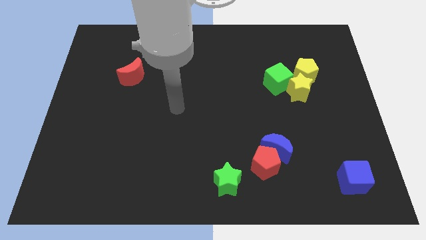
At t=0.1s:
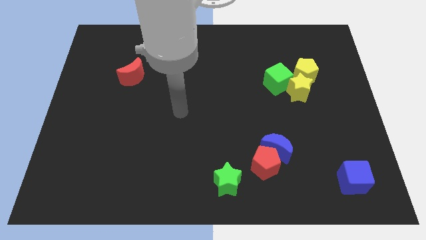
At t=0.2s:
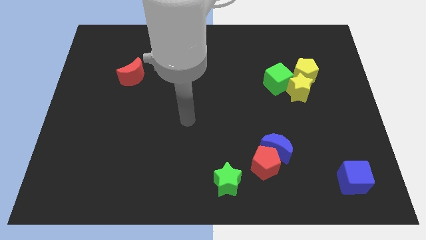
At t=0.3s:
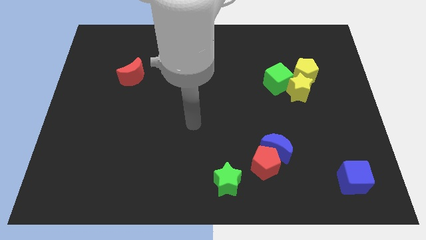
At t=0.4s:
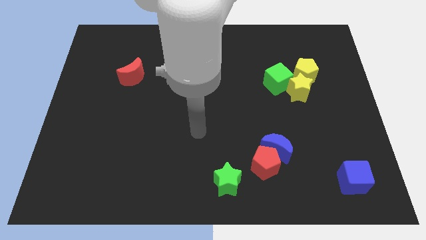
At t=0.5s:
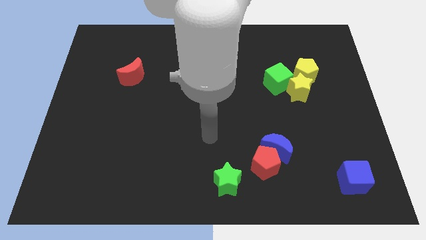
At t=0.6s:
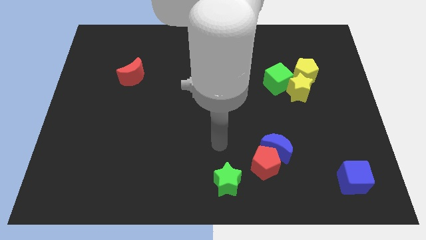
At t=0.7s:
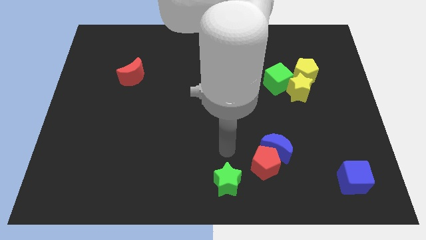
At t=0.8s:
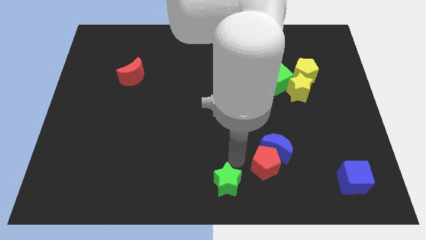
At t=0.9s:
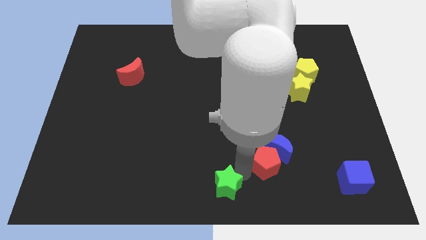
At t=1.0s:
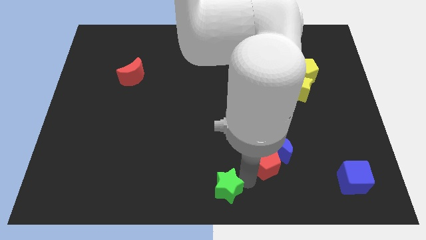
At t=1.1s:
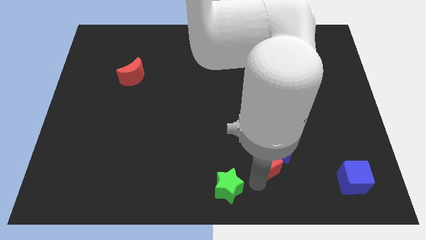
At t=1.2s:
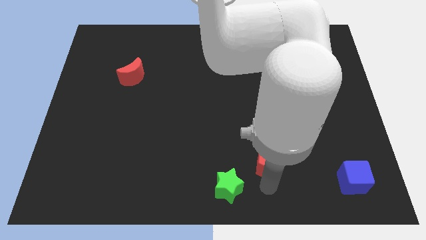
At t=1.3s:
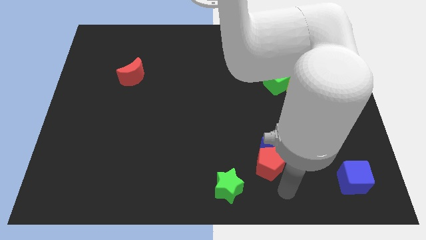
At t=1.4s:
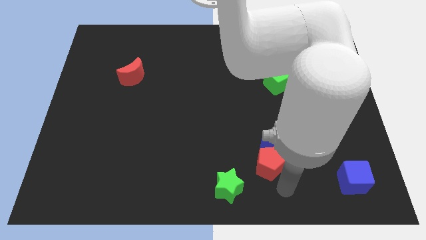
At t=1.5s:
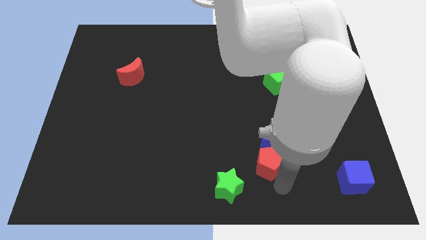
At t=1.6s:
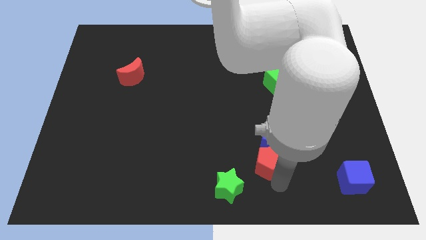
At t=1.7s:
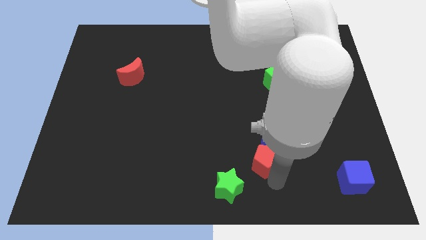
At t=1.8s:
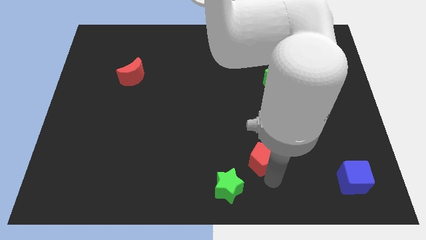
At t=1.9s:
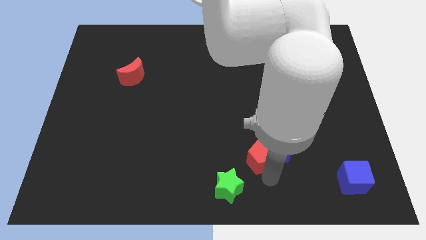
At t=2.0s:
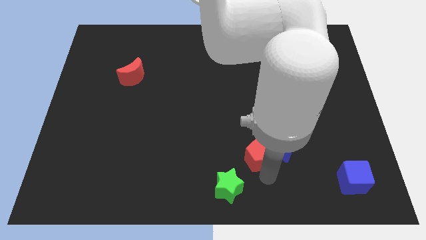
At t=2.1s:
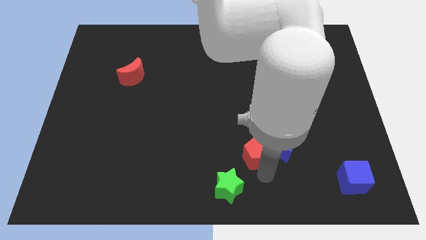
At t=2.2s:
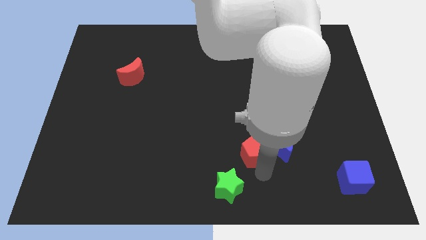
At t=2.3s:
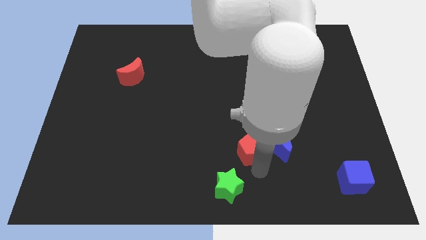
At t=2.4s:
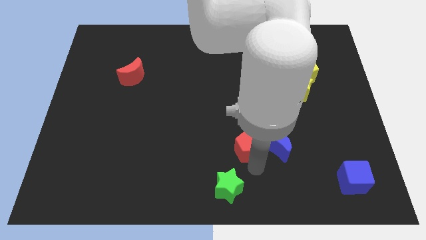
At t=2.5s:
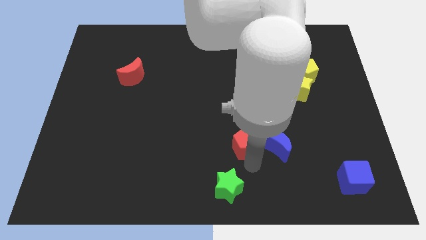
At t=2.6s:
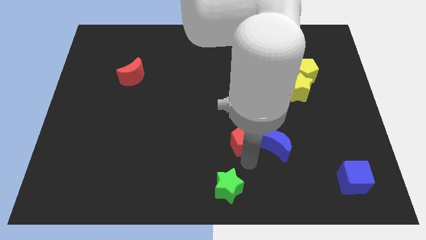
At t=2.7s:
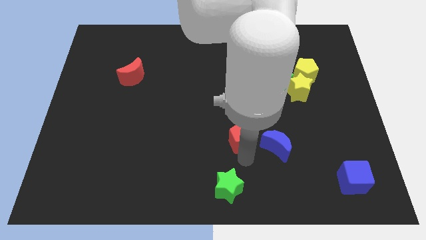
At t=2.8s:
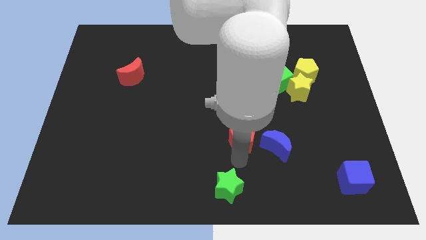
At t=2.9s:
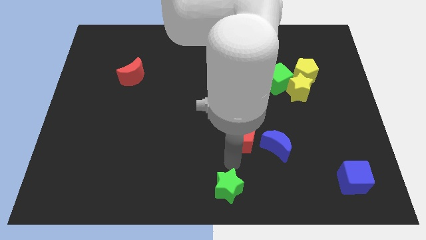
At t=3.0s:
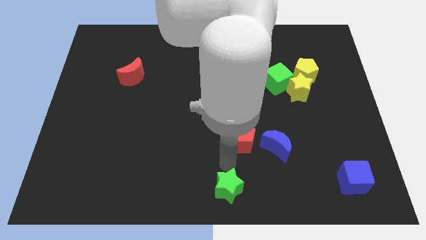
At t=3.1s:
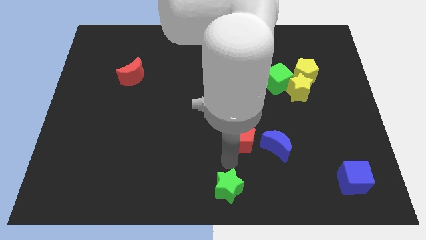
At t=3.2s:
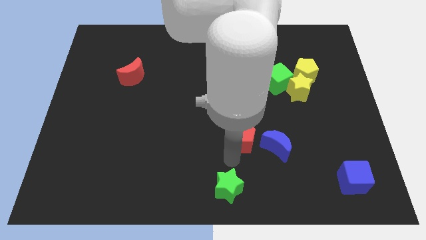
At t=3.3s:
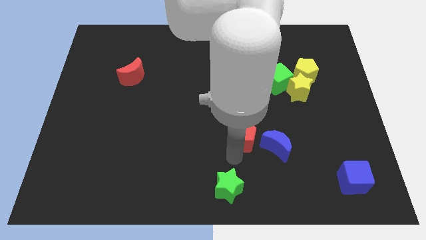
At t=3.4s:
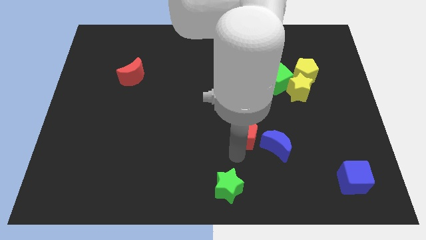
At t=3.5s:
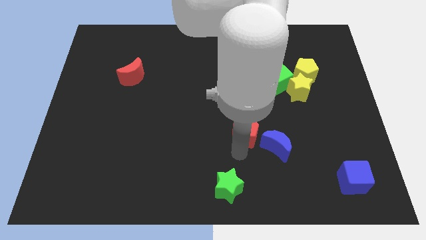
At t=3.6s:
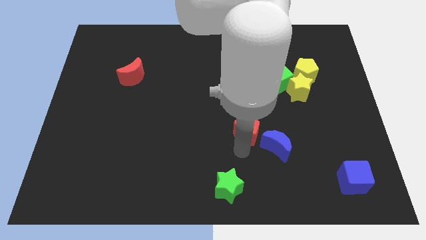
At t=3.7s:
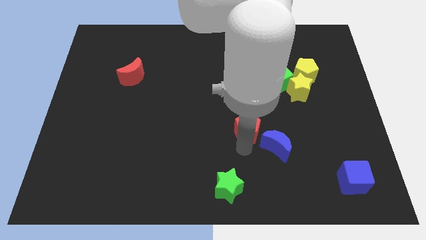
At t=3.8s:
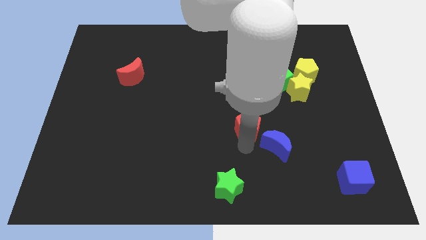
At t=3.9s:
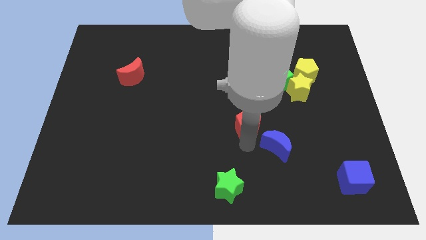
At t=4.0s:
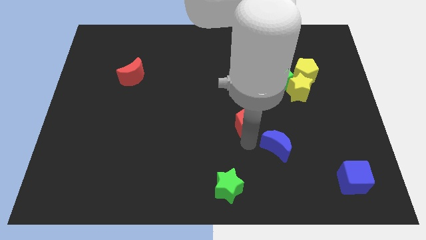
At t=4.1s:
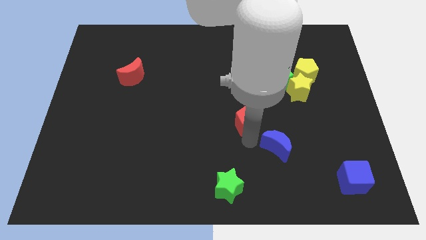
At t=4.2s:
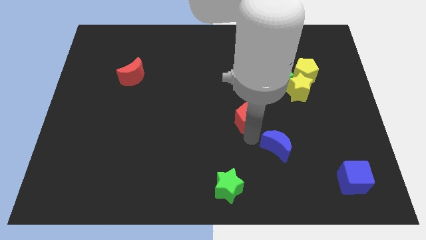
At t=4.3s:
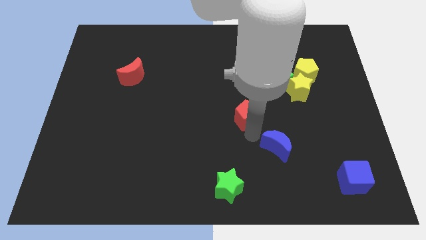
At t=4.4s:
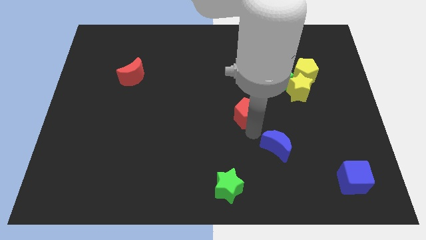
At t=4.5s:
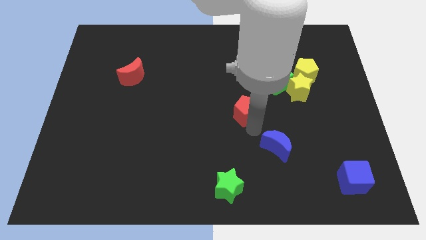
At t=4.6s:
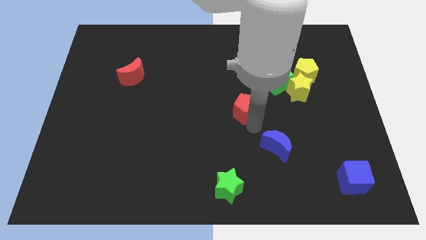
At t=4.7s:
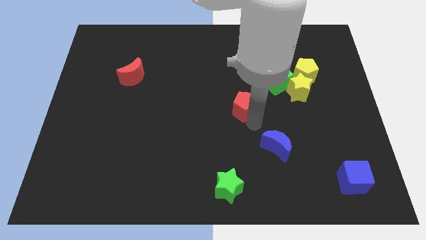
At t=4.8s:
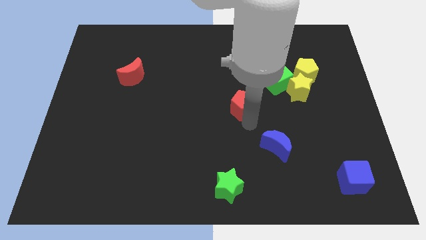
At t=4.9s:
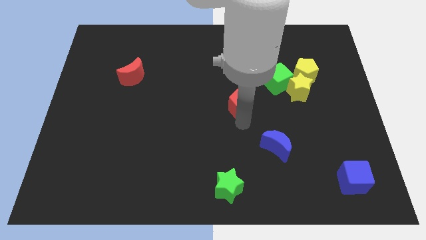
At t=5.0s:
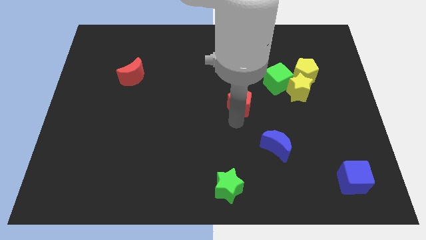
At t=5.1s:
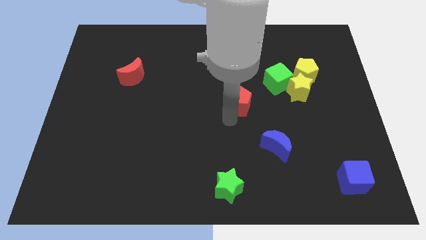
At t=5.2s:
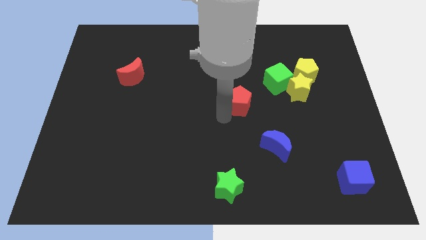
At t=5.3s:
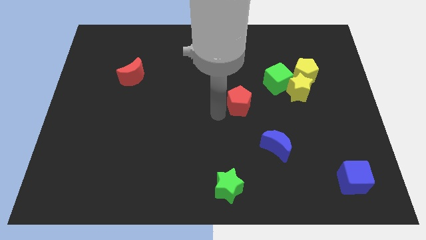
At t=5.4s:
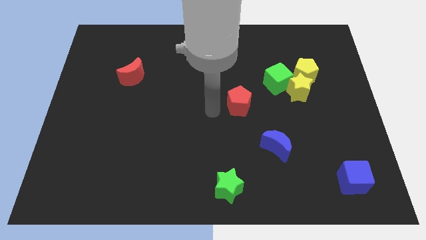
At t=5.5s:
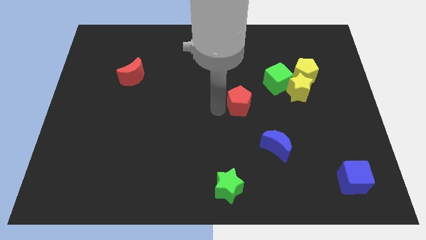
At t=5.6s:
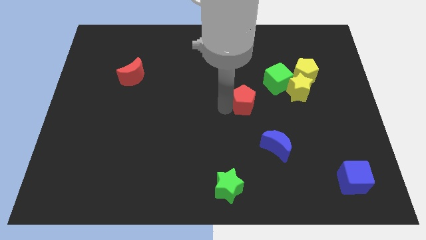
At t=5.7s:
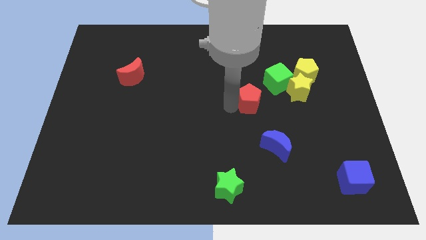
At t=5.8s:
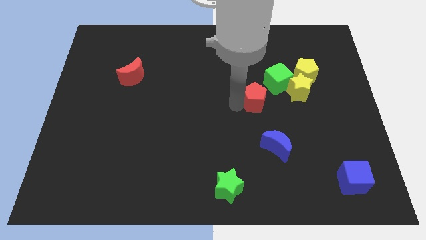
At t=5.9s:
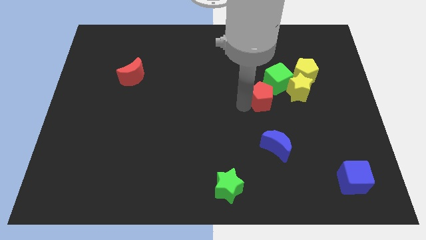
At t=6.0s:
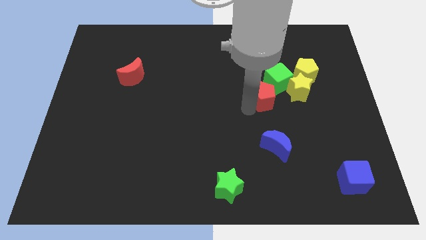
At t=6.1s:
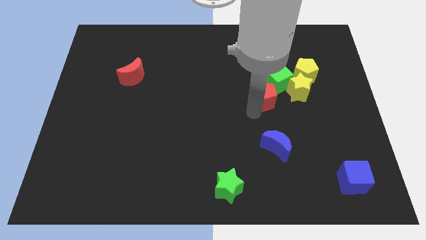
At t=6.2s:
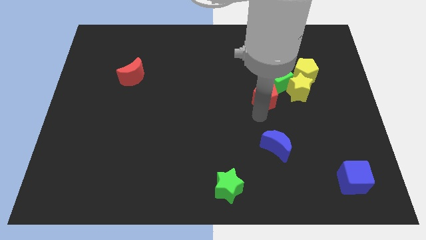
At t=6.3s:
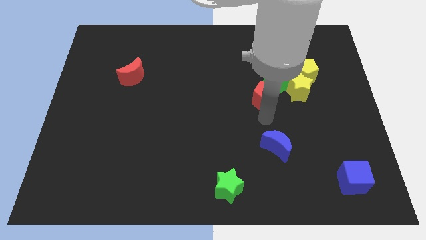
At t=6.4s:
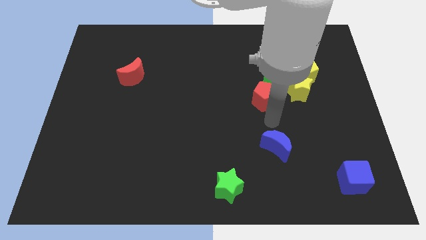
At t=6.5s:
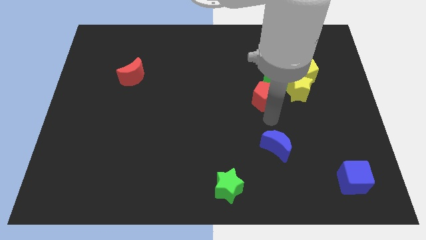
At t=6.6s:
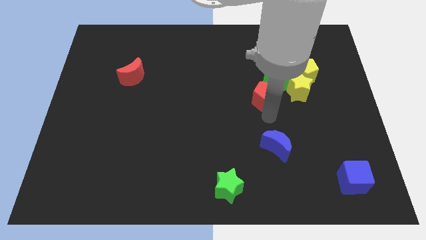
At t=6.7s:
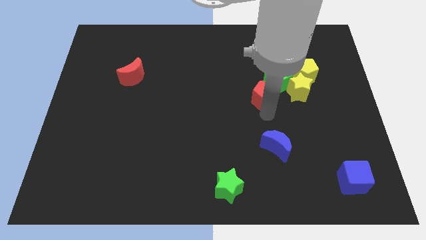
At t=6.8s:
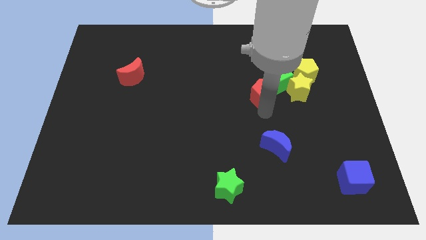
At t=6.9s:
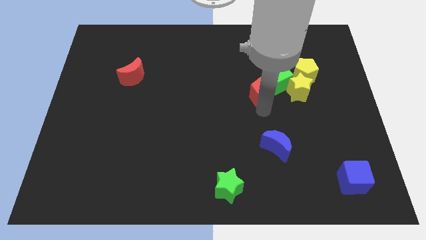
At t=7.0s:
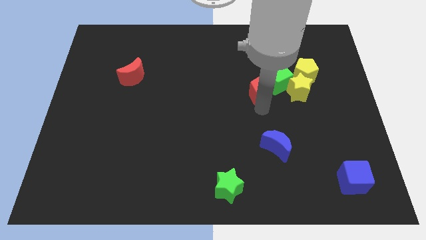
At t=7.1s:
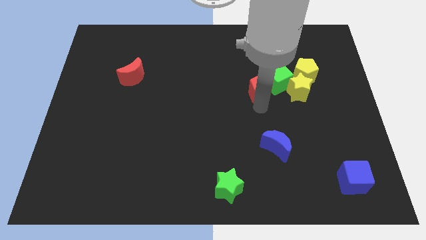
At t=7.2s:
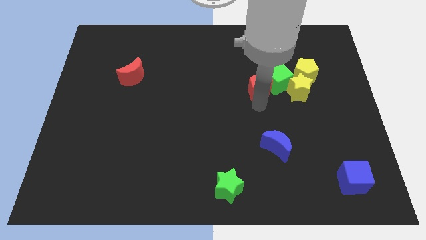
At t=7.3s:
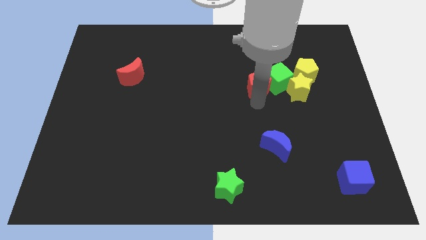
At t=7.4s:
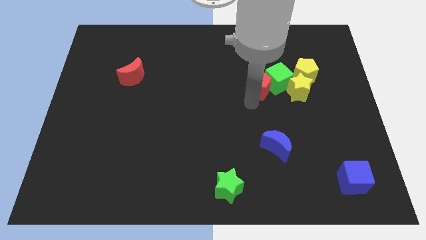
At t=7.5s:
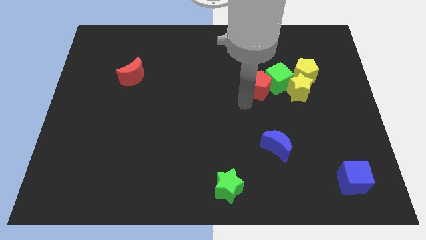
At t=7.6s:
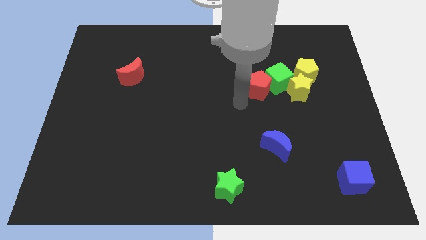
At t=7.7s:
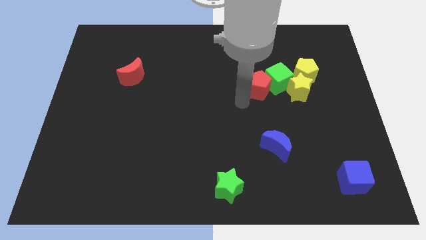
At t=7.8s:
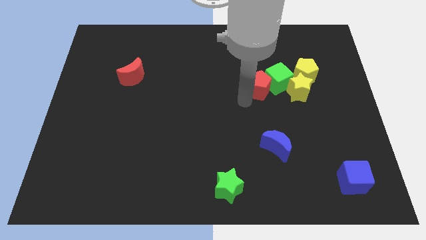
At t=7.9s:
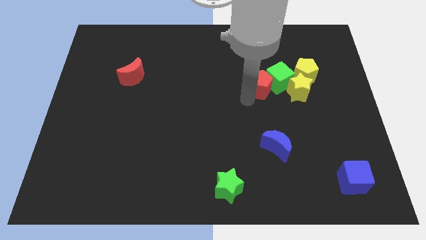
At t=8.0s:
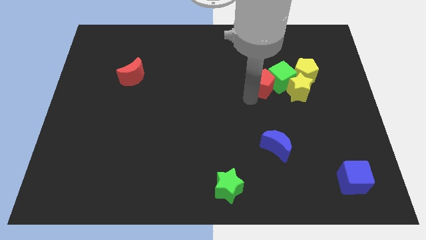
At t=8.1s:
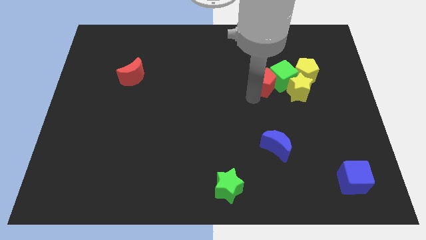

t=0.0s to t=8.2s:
push the red pentagon diagonally up and to the left of the yellow star
